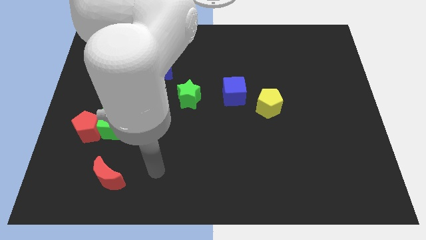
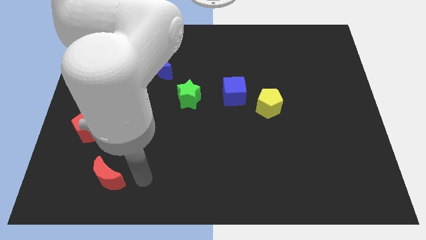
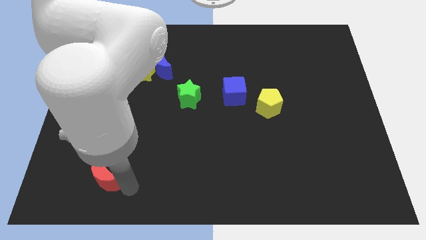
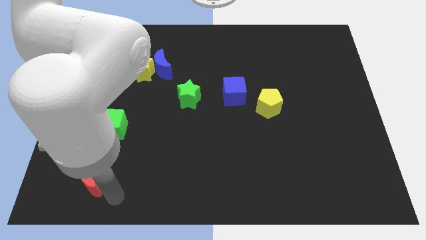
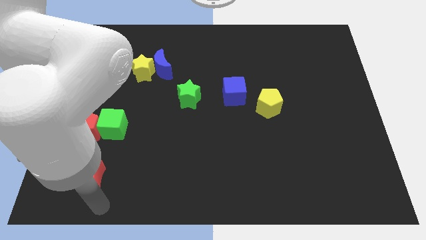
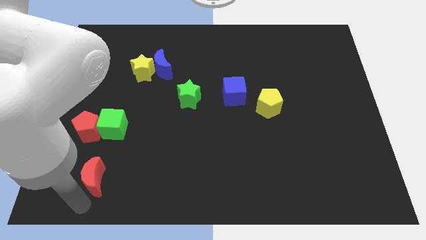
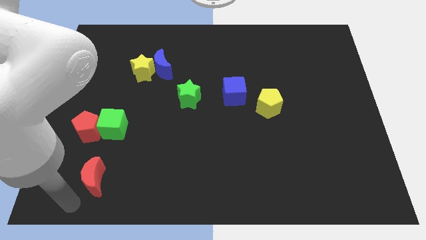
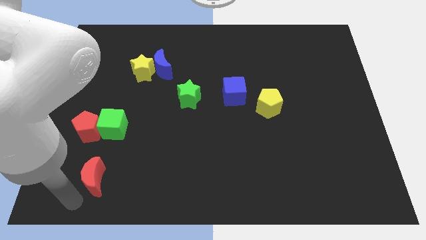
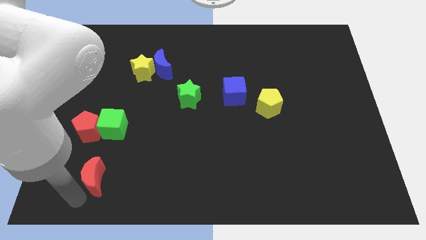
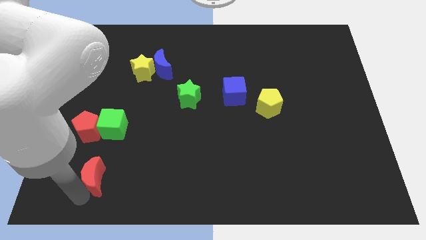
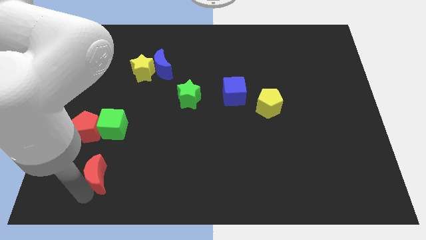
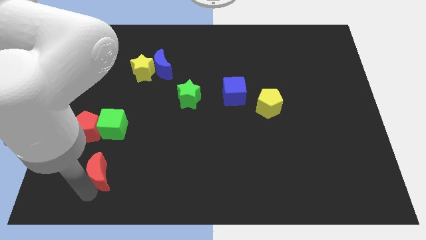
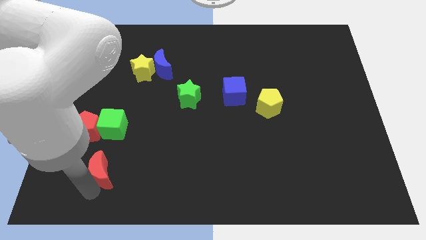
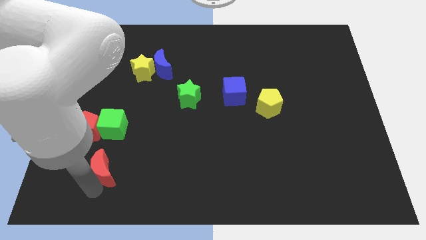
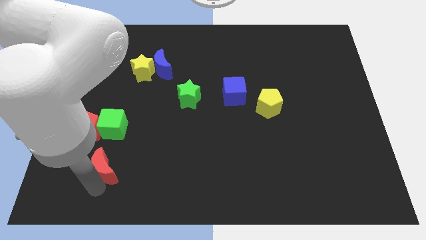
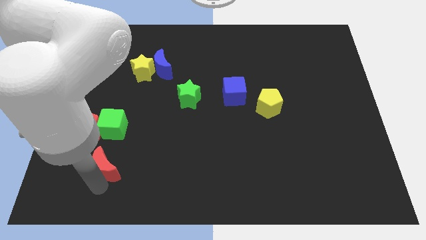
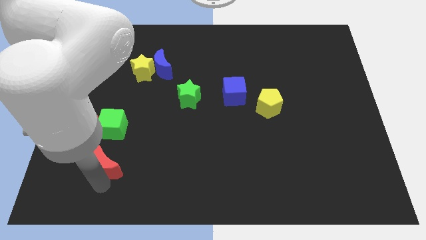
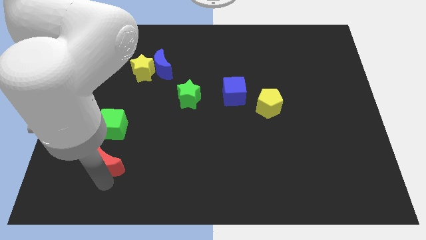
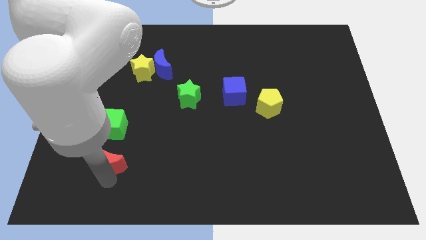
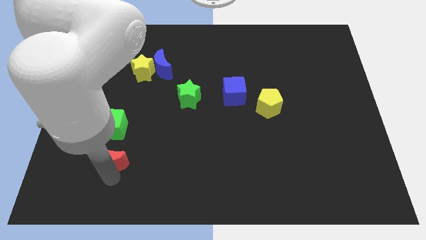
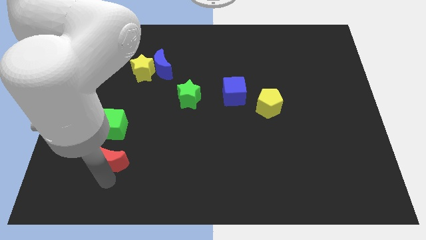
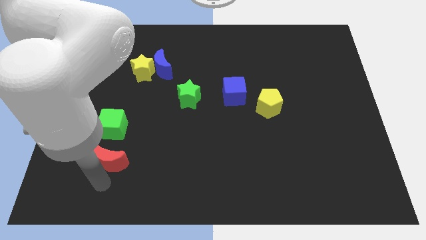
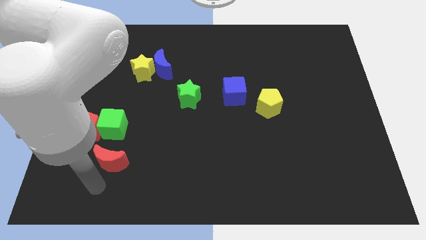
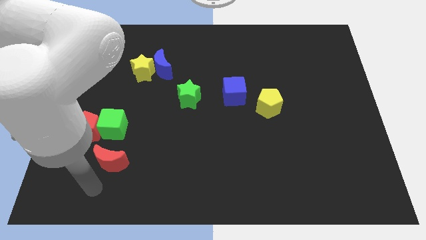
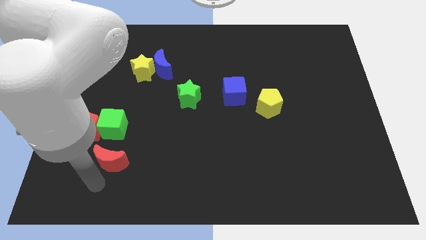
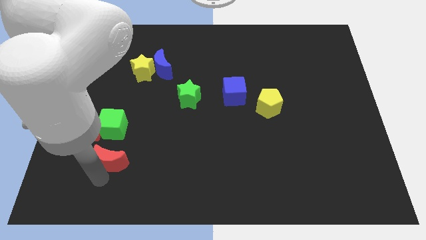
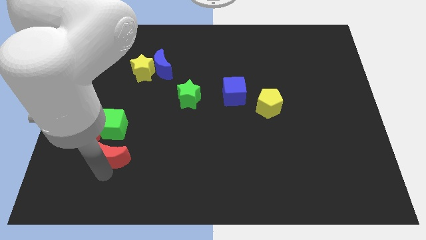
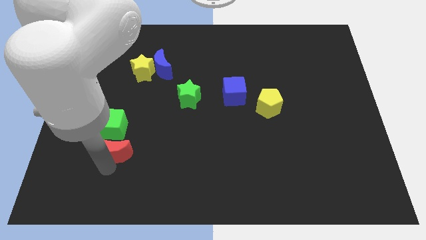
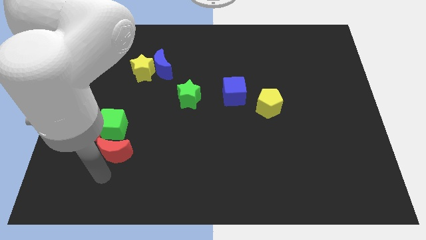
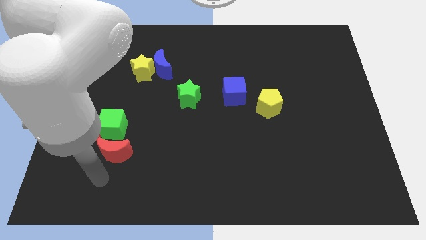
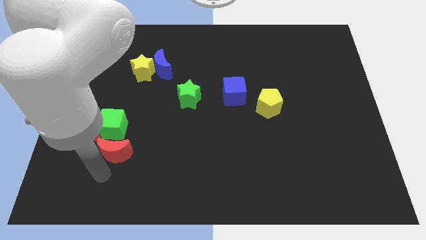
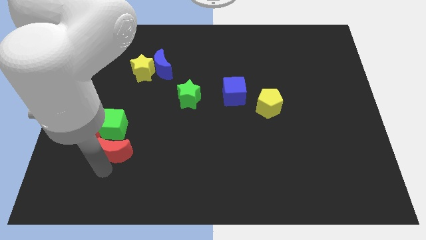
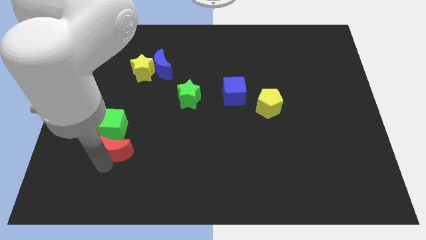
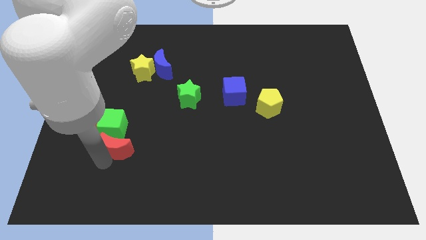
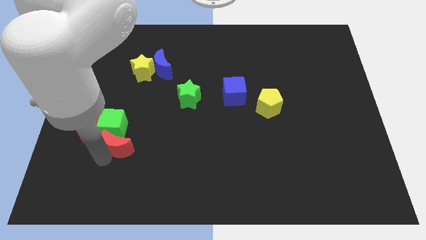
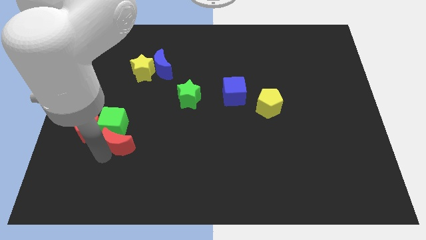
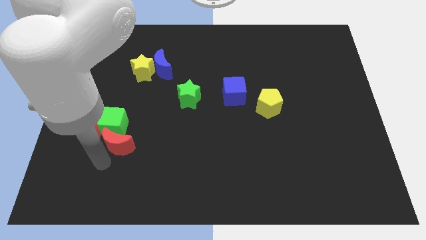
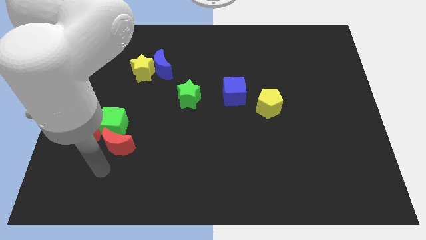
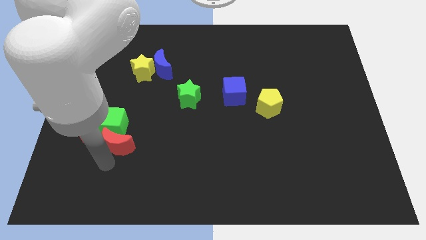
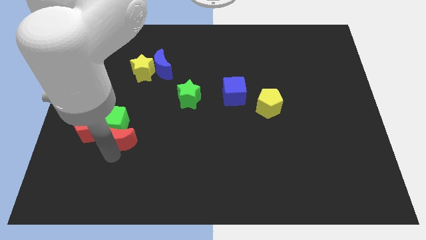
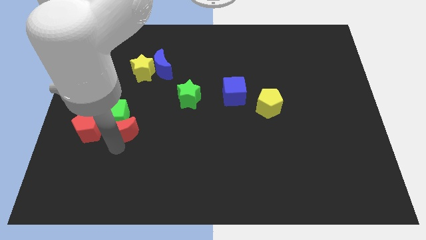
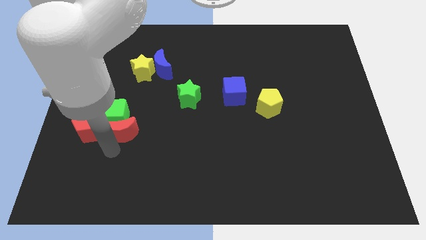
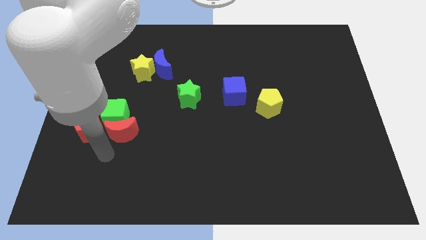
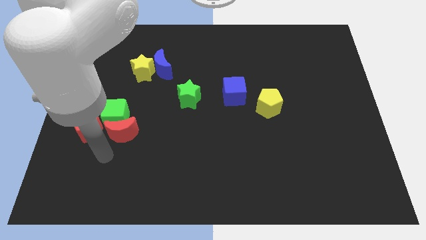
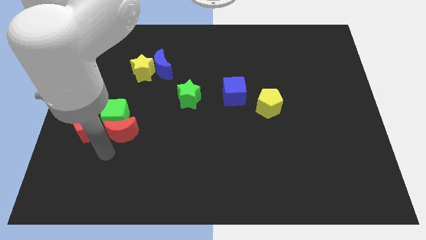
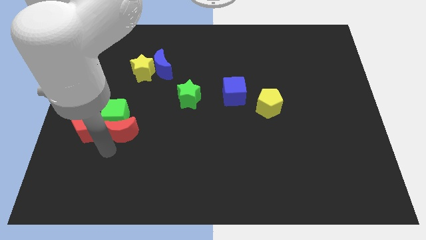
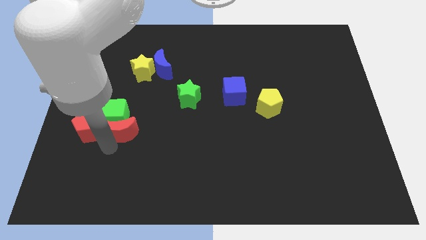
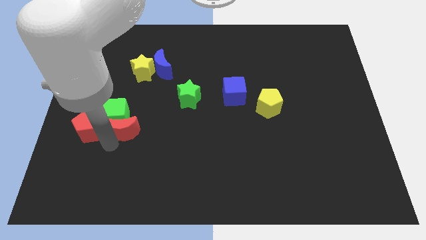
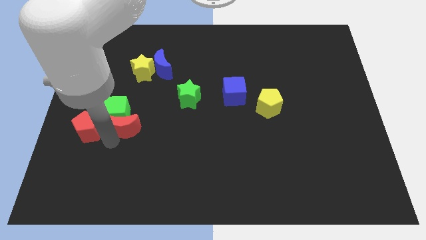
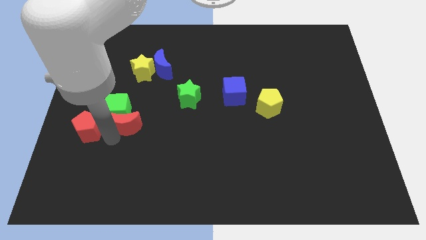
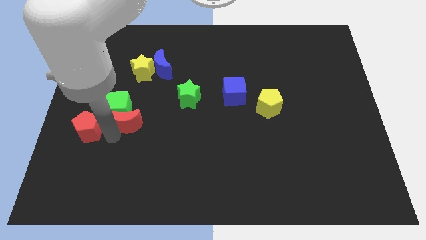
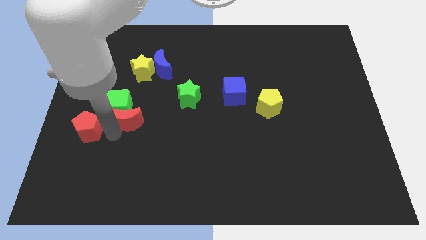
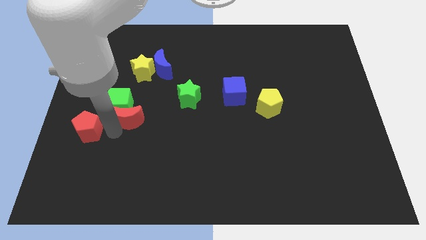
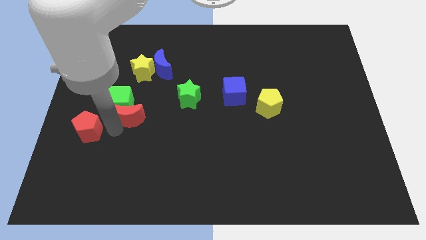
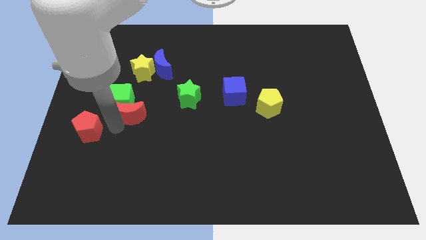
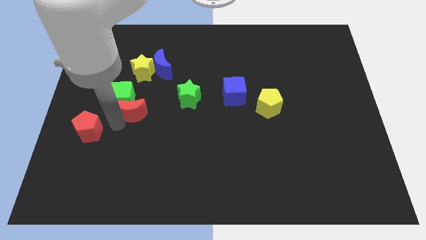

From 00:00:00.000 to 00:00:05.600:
push the red moon left of the green star

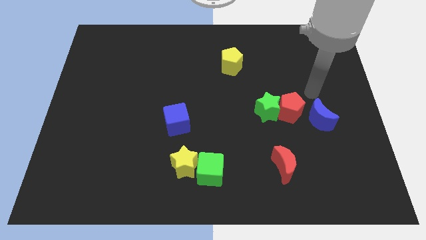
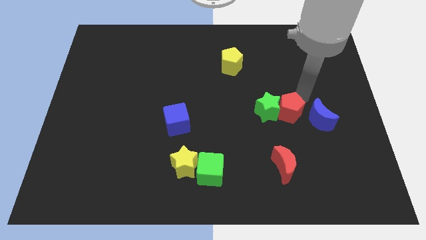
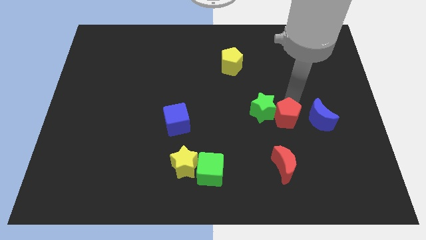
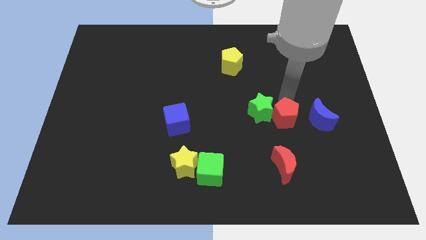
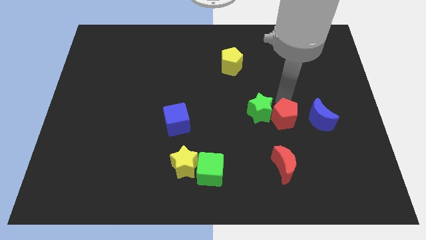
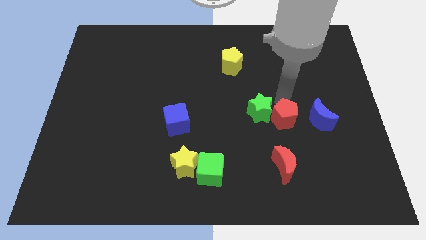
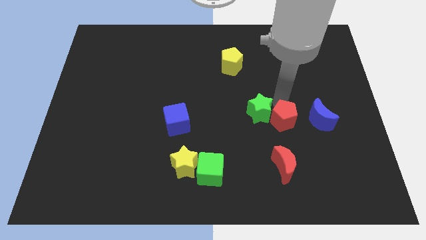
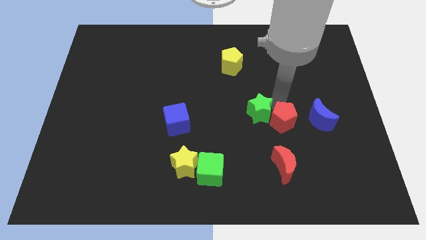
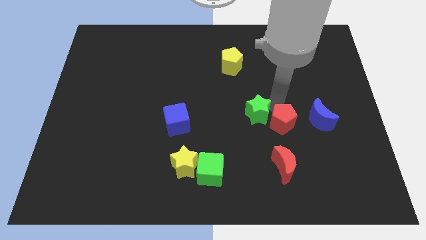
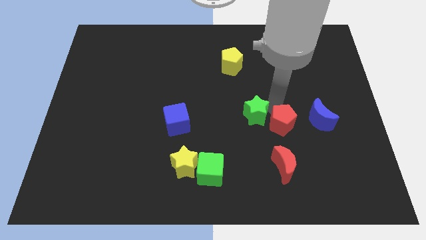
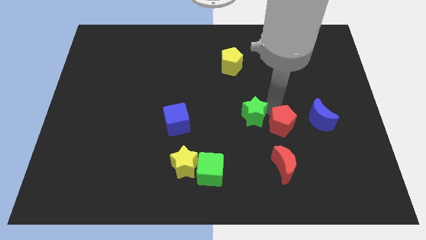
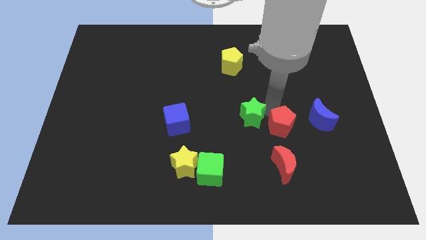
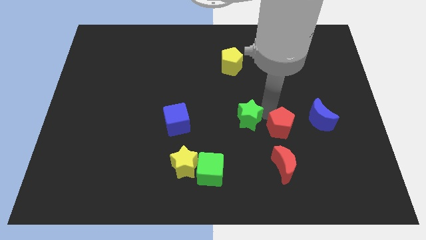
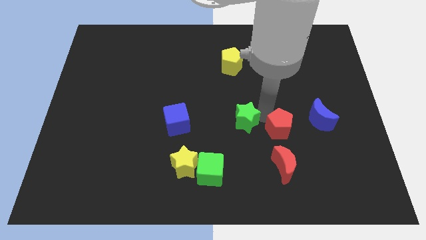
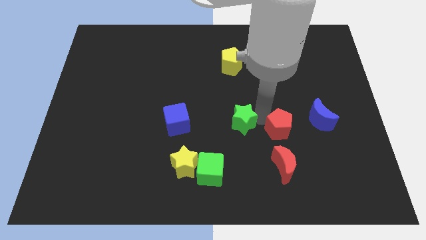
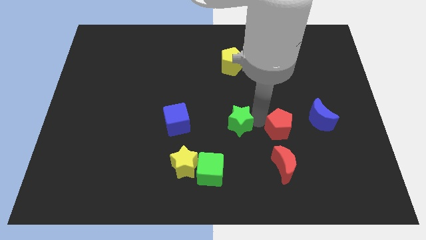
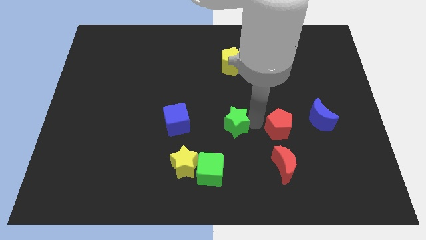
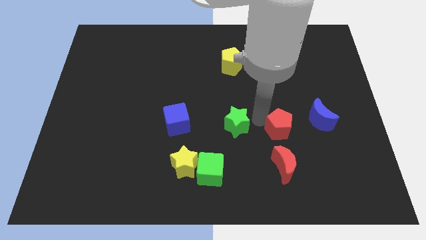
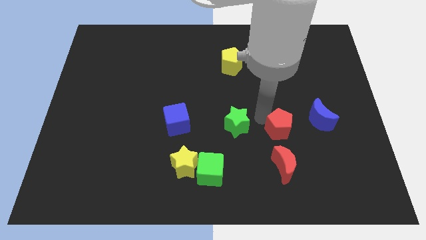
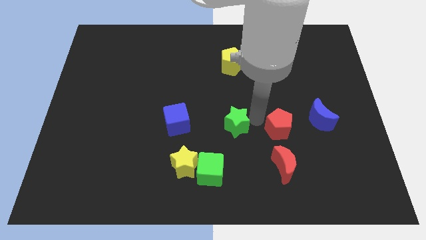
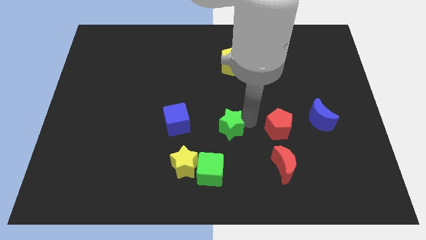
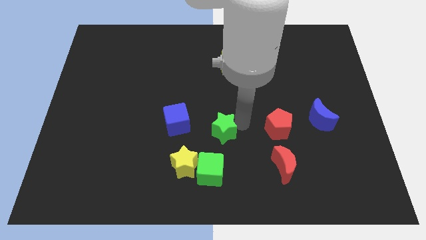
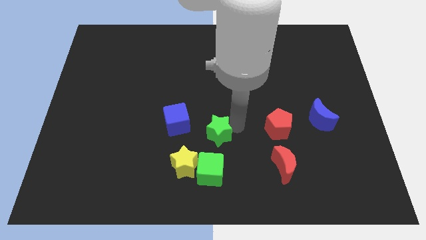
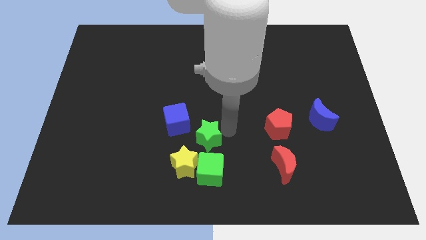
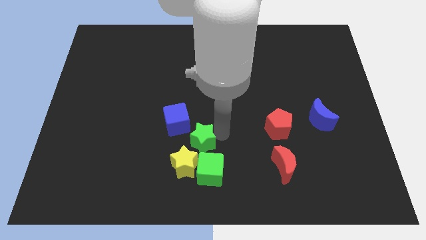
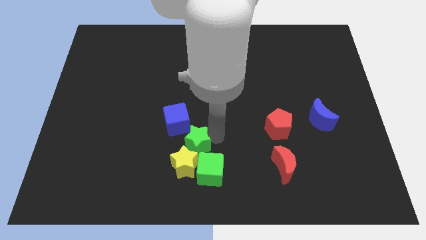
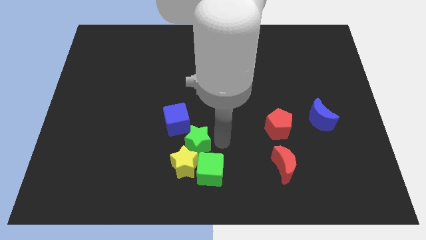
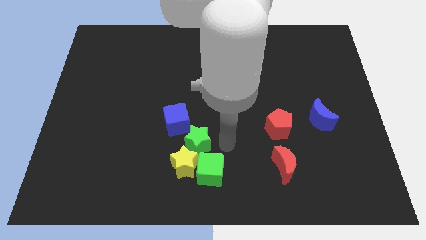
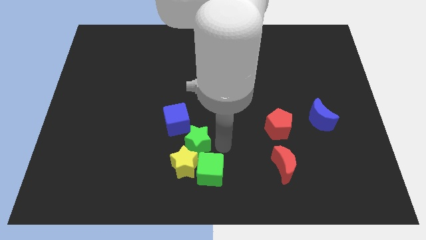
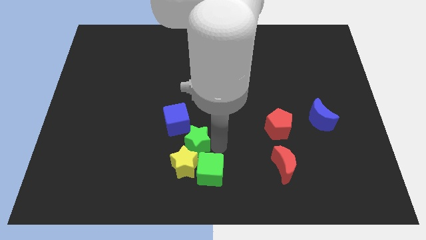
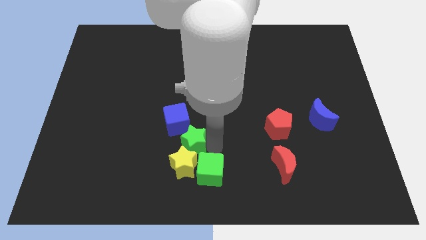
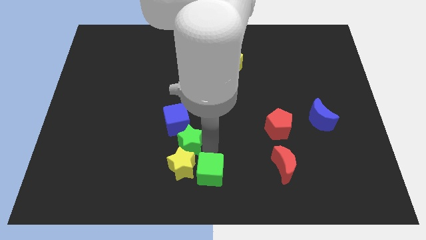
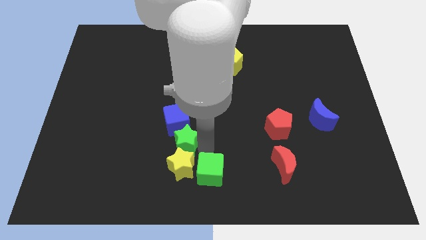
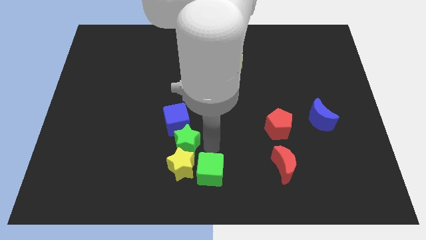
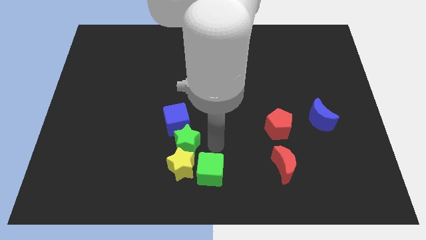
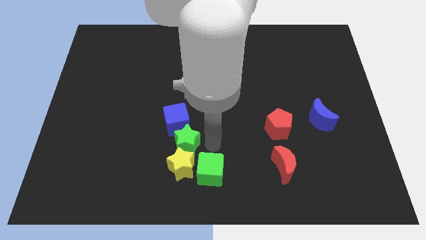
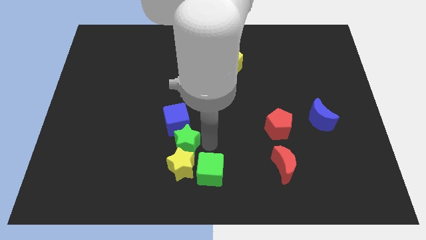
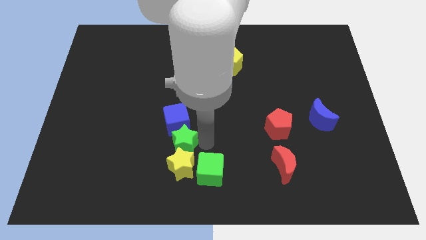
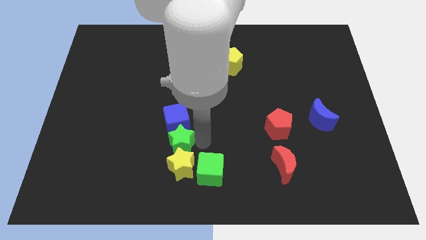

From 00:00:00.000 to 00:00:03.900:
slide the green star diagonally down and to the left of the blue cube
